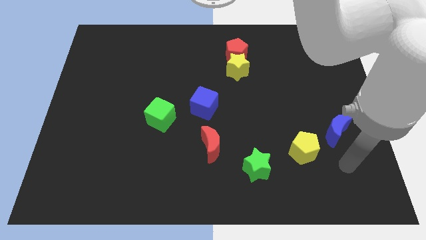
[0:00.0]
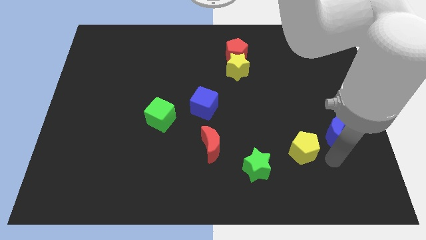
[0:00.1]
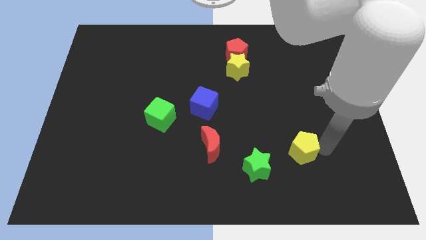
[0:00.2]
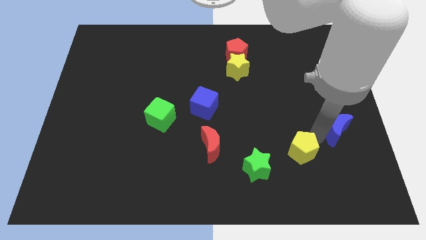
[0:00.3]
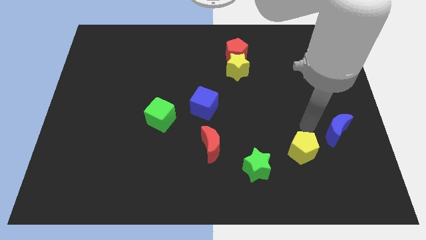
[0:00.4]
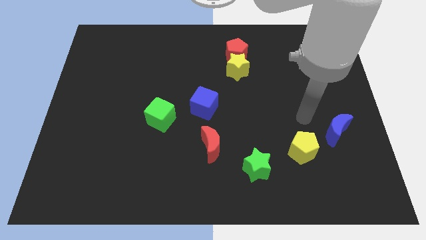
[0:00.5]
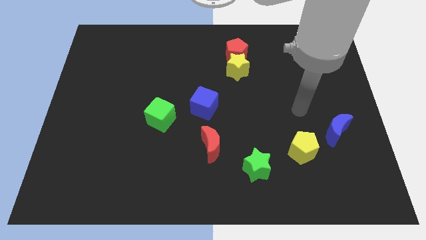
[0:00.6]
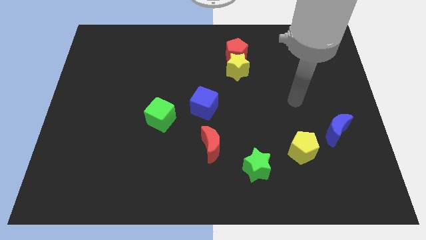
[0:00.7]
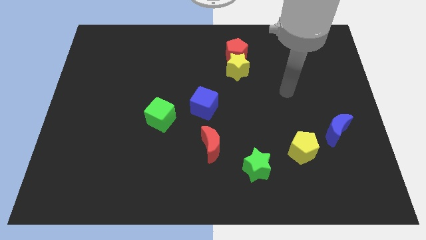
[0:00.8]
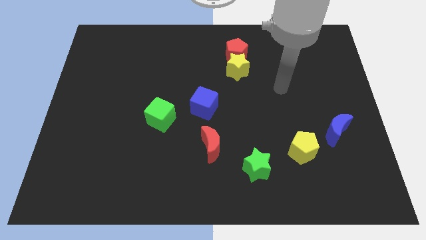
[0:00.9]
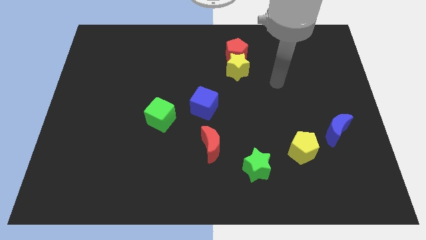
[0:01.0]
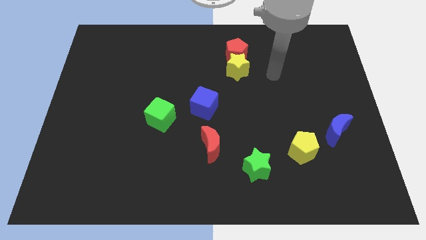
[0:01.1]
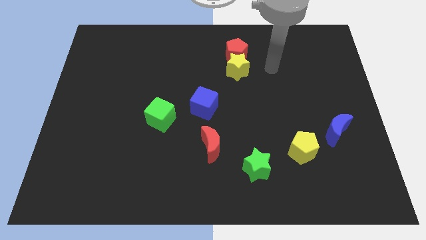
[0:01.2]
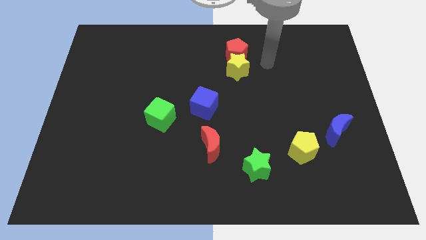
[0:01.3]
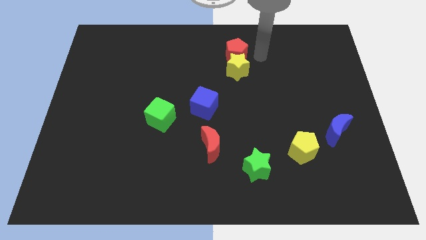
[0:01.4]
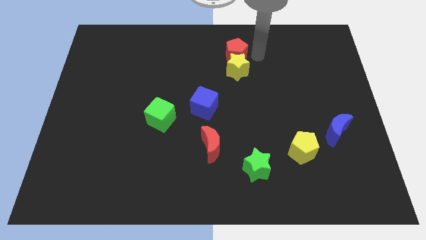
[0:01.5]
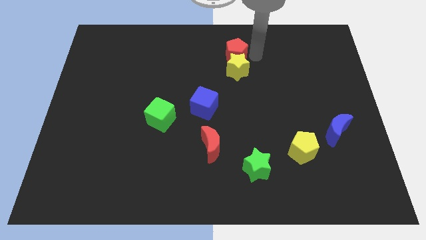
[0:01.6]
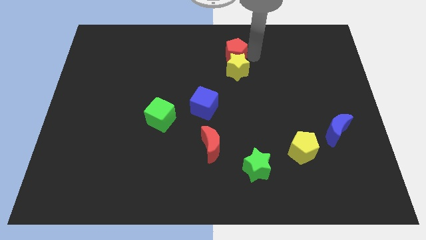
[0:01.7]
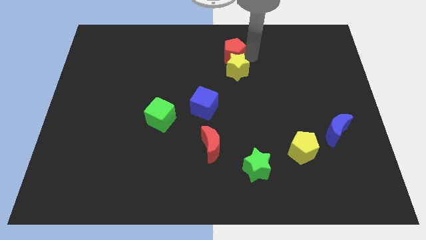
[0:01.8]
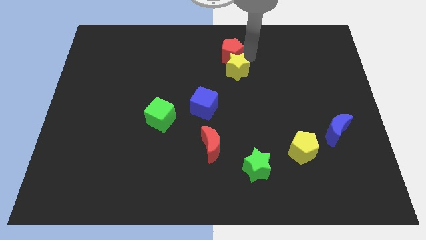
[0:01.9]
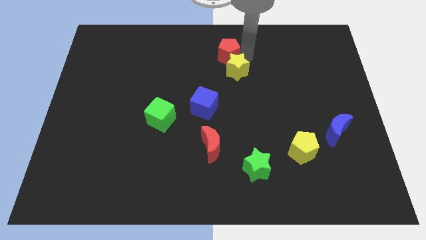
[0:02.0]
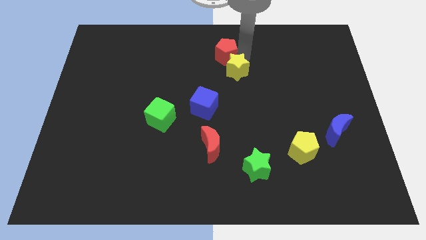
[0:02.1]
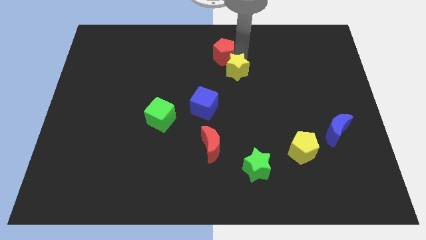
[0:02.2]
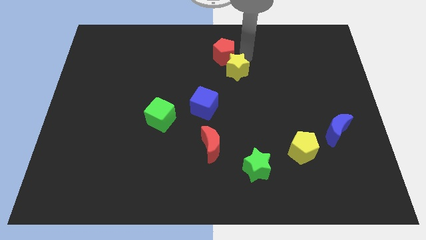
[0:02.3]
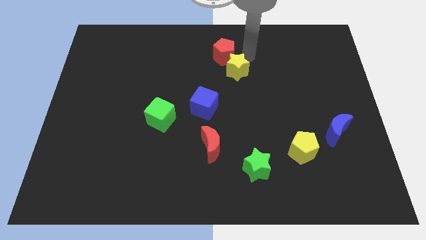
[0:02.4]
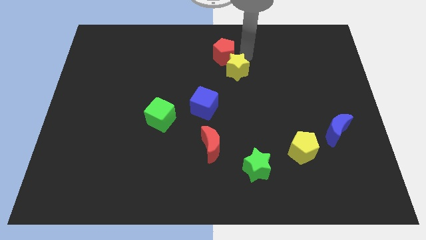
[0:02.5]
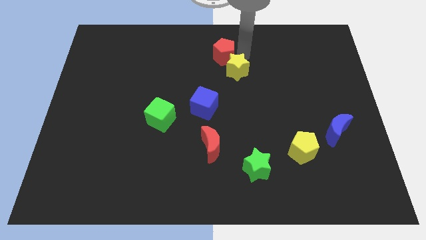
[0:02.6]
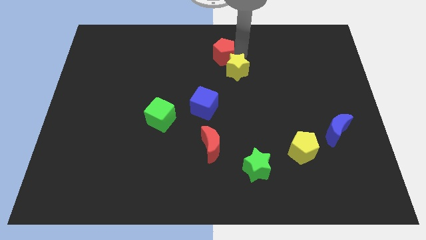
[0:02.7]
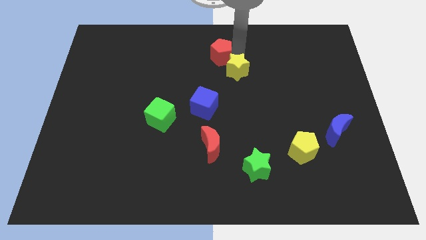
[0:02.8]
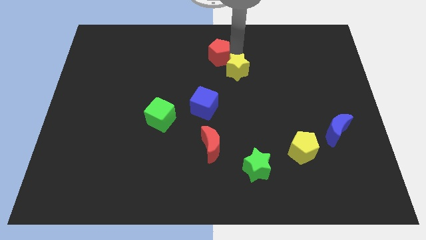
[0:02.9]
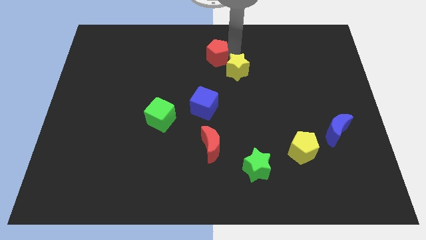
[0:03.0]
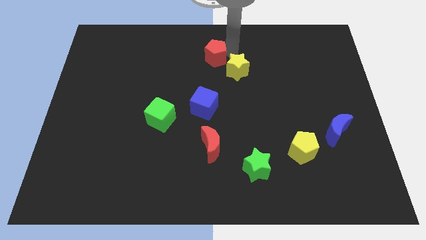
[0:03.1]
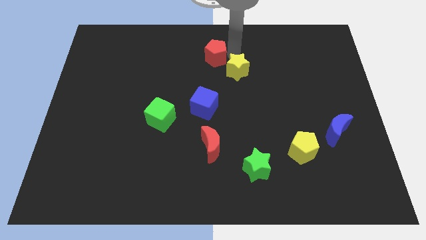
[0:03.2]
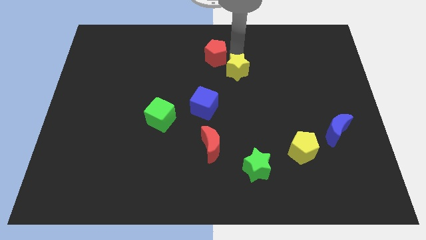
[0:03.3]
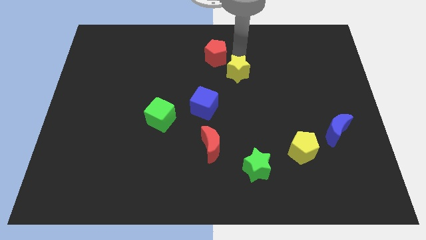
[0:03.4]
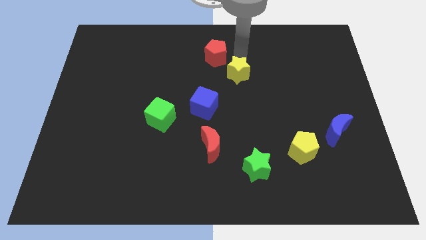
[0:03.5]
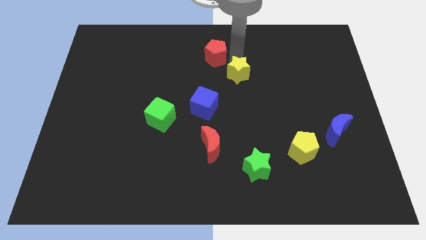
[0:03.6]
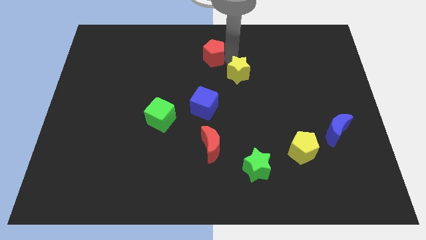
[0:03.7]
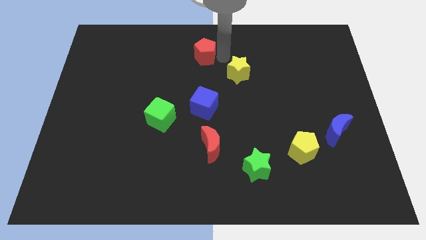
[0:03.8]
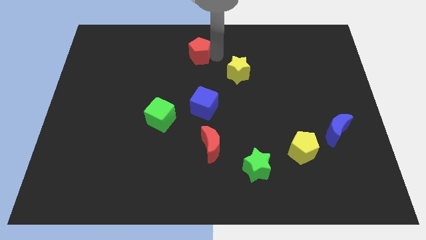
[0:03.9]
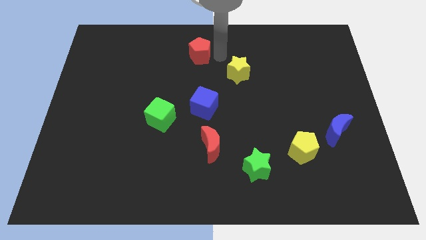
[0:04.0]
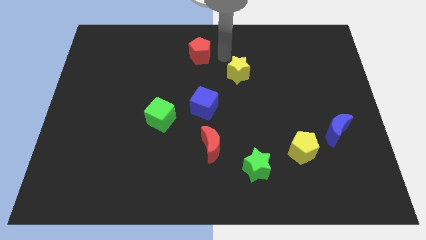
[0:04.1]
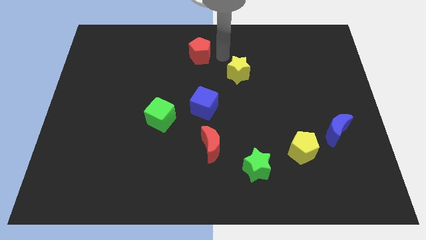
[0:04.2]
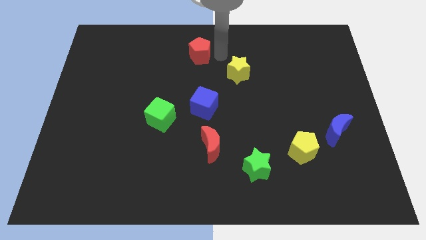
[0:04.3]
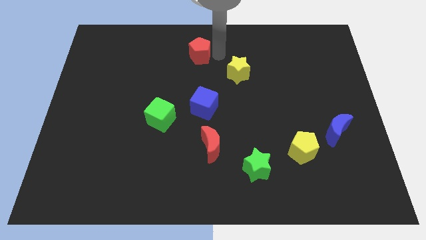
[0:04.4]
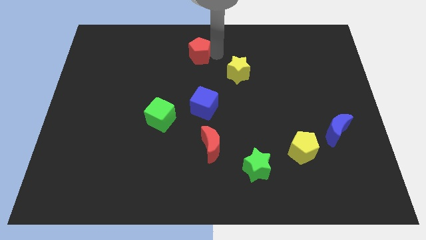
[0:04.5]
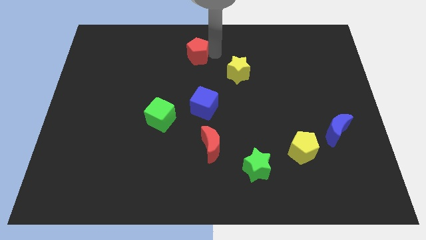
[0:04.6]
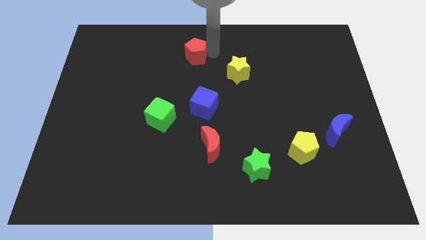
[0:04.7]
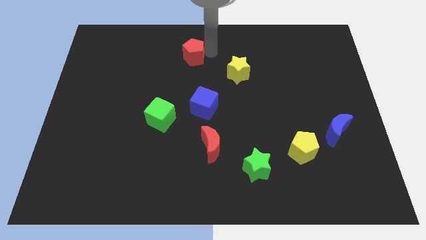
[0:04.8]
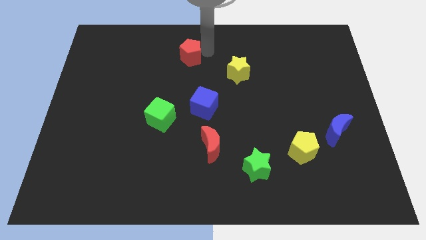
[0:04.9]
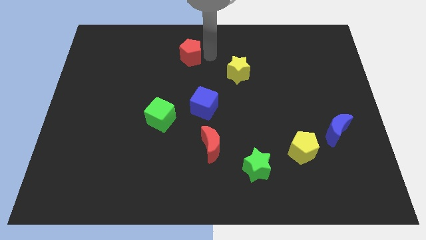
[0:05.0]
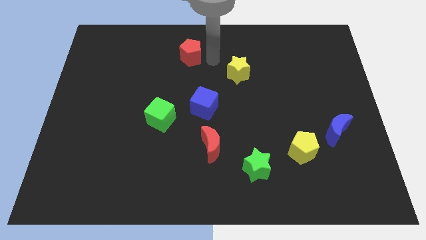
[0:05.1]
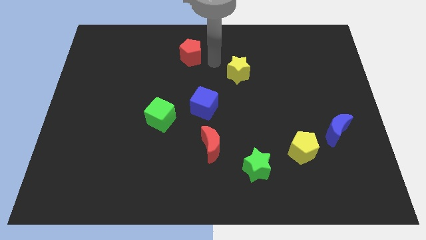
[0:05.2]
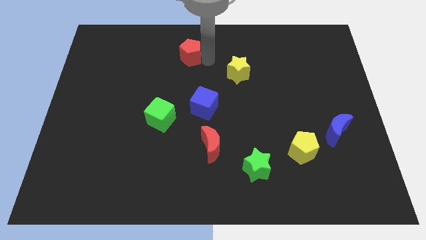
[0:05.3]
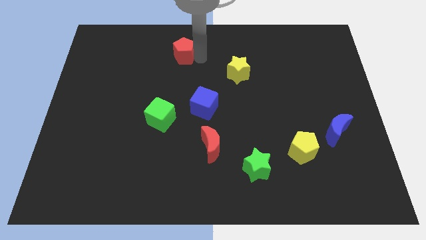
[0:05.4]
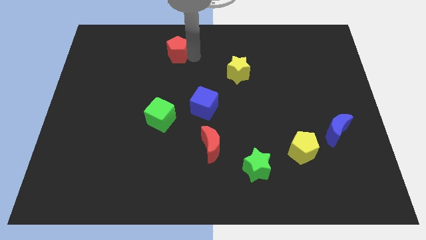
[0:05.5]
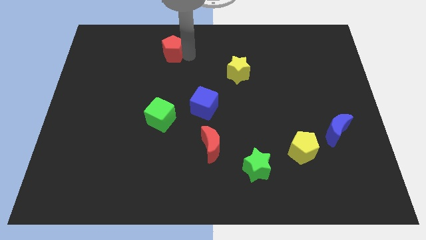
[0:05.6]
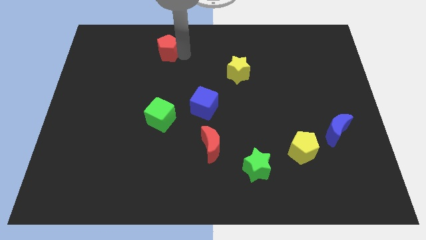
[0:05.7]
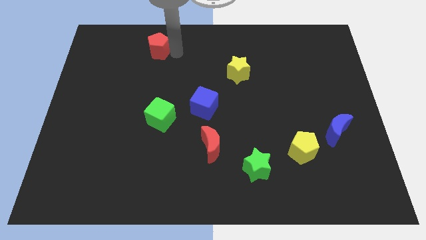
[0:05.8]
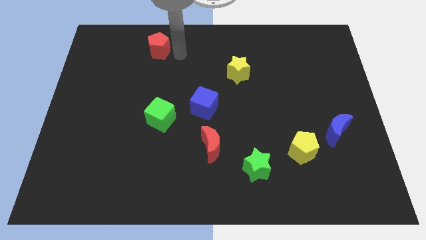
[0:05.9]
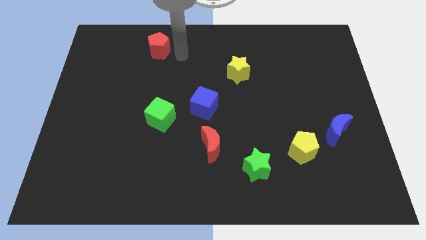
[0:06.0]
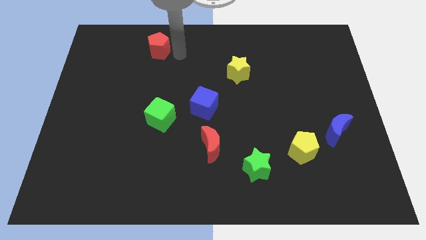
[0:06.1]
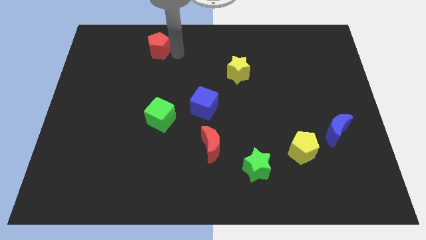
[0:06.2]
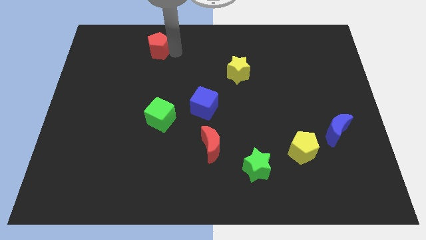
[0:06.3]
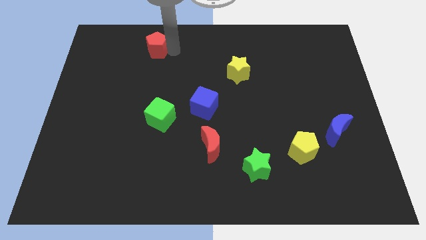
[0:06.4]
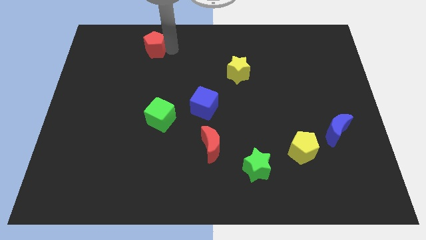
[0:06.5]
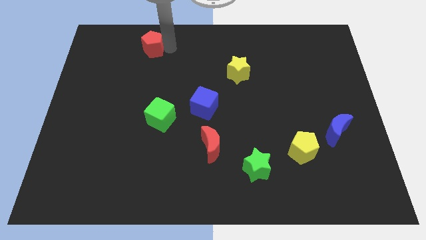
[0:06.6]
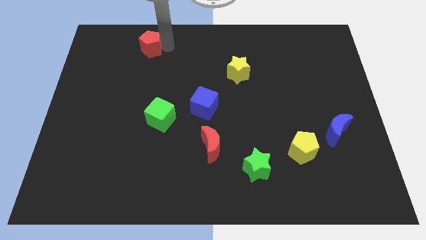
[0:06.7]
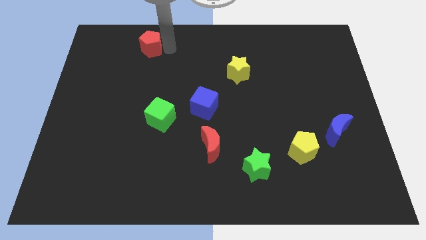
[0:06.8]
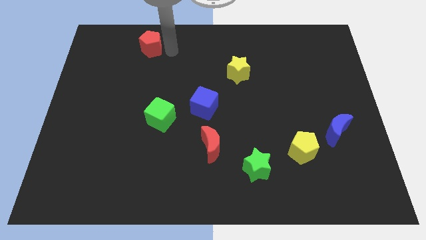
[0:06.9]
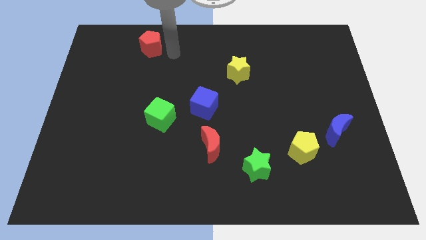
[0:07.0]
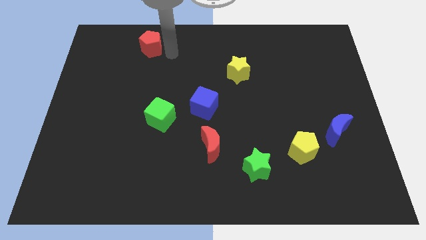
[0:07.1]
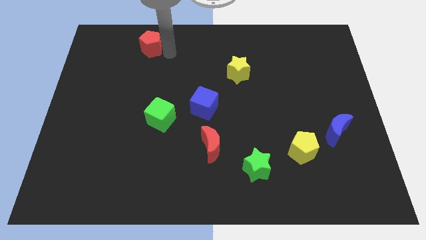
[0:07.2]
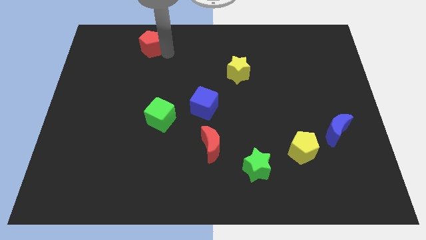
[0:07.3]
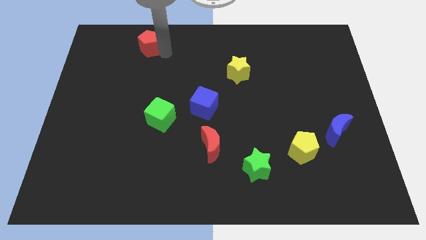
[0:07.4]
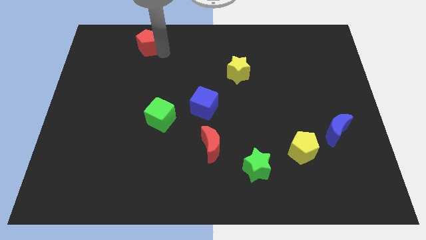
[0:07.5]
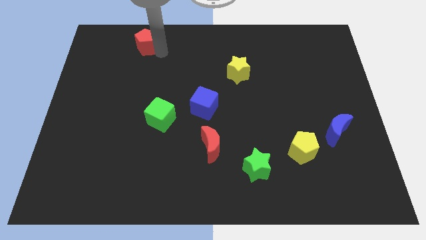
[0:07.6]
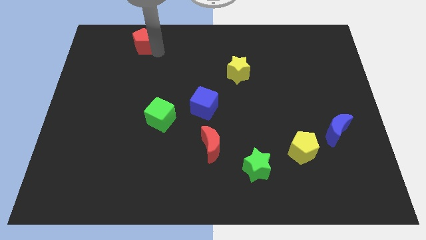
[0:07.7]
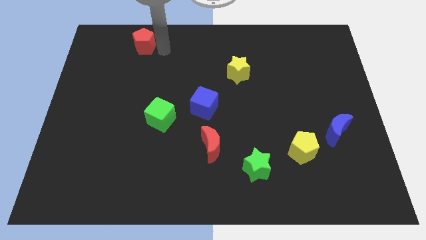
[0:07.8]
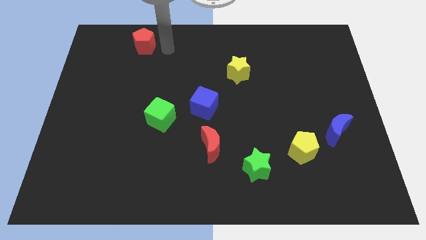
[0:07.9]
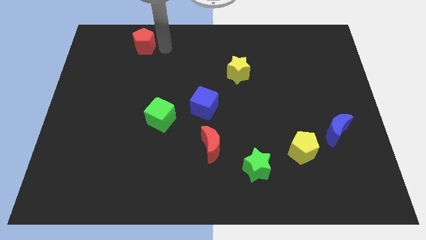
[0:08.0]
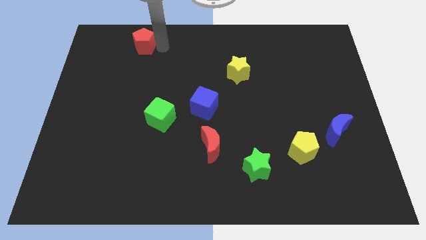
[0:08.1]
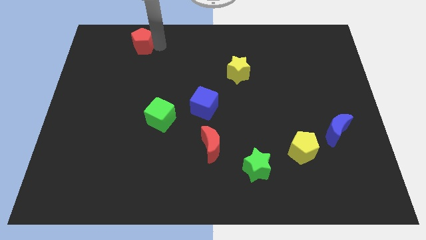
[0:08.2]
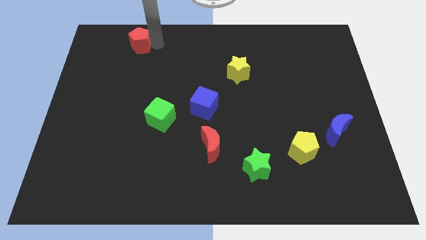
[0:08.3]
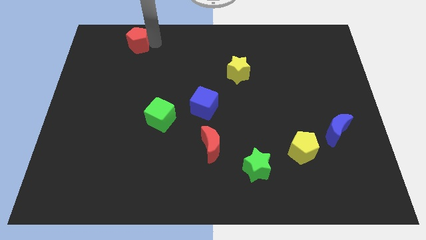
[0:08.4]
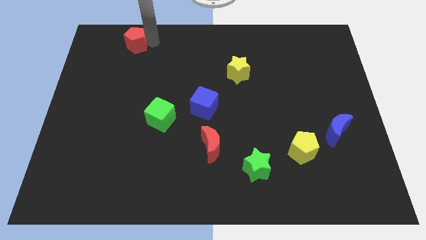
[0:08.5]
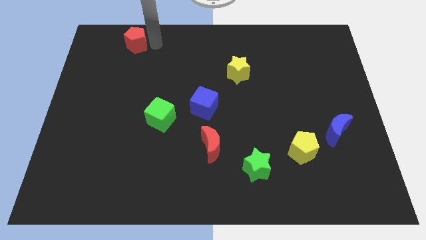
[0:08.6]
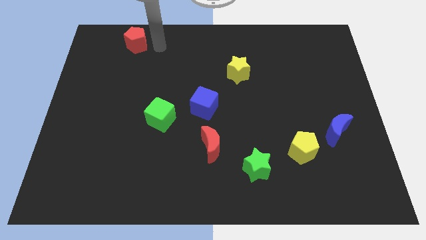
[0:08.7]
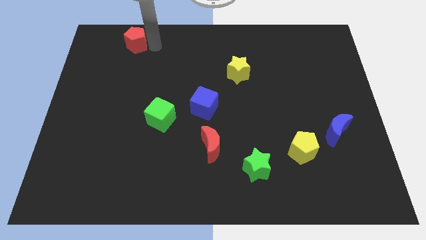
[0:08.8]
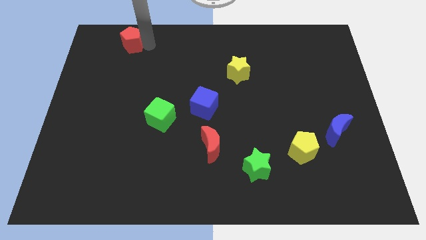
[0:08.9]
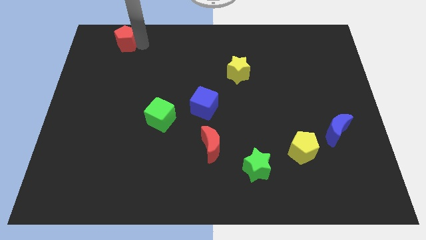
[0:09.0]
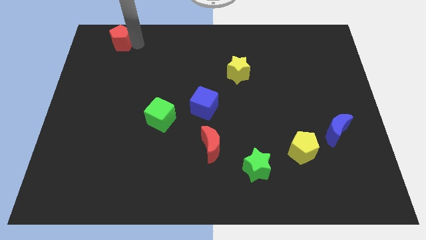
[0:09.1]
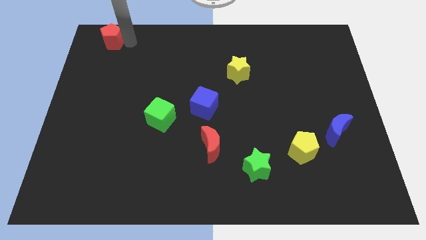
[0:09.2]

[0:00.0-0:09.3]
slide the red pentagon to the top left of the board
